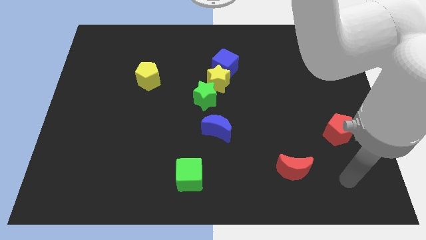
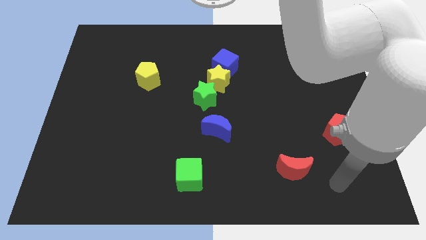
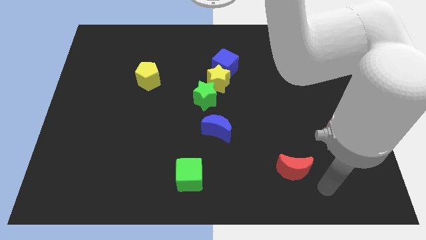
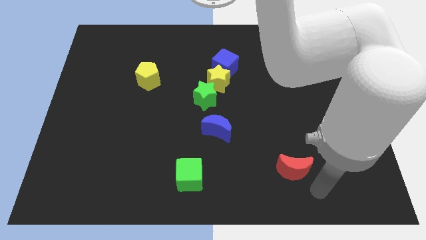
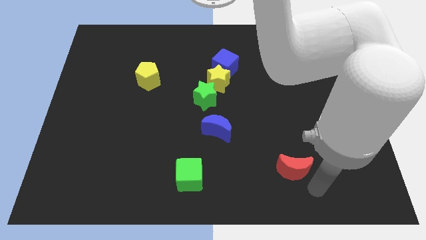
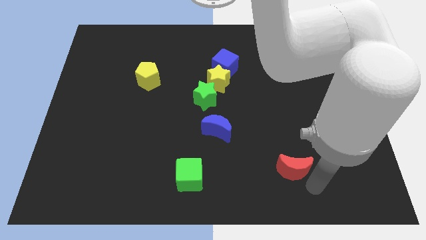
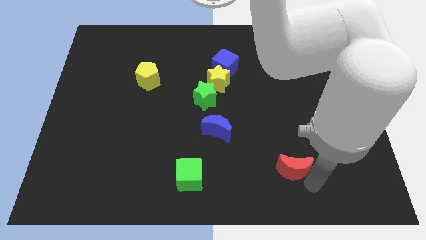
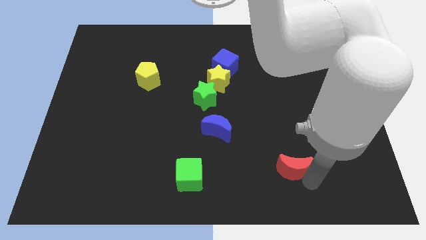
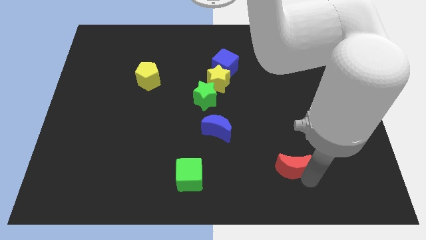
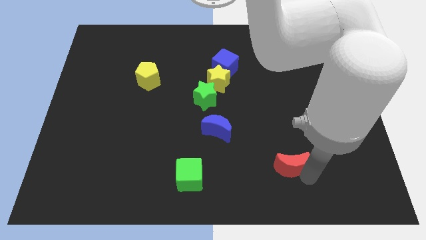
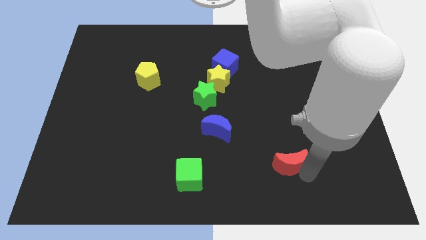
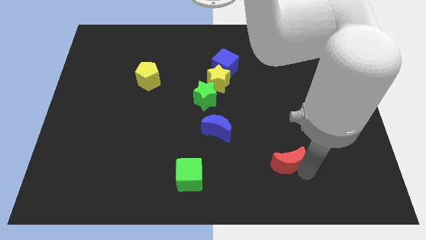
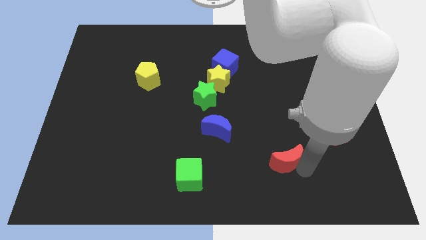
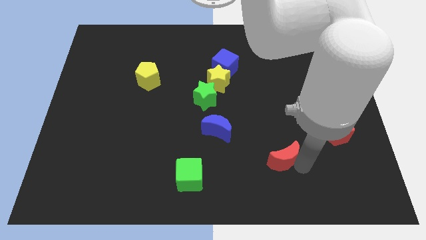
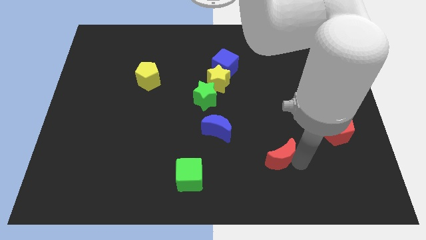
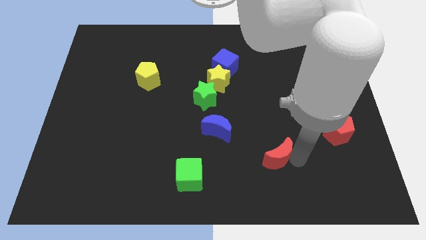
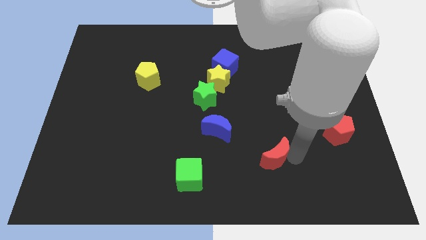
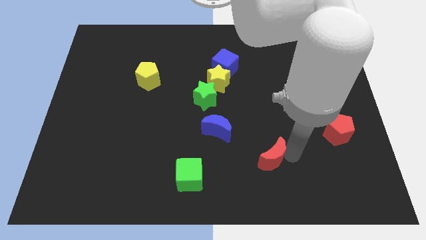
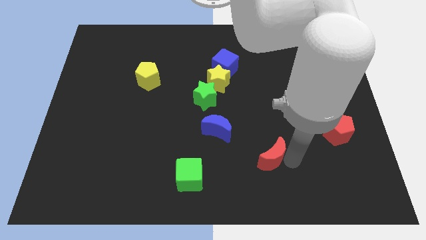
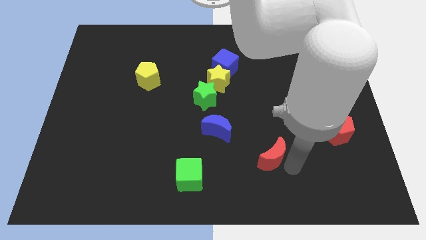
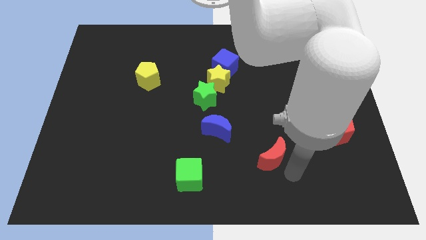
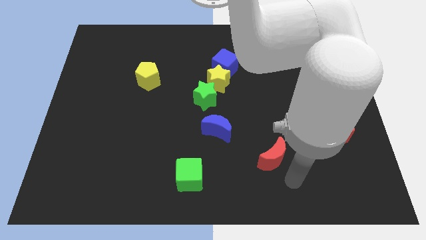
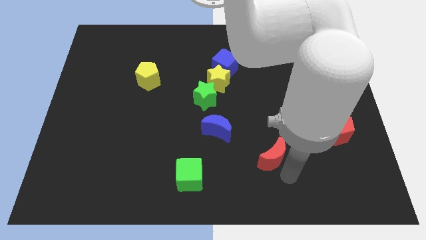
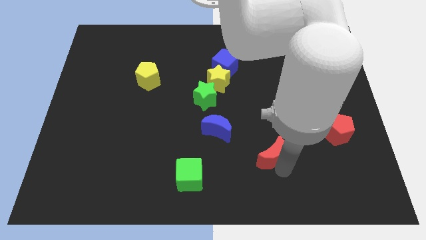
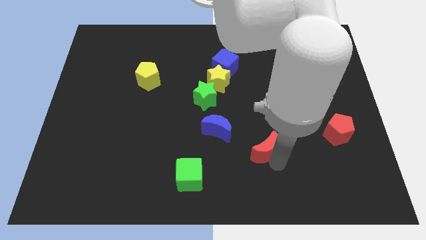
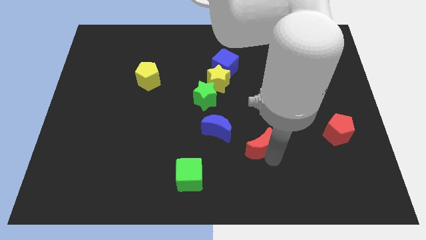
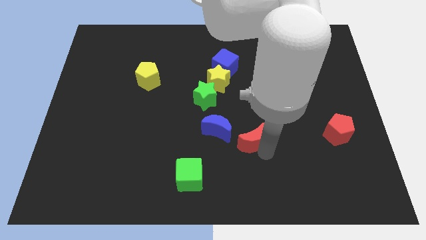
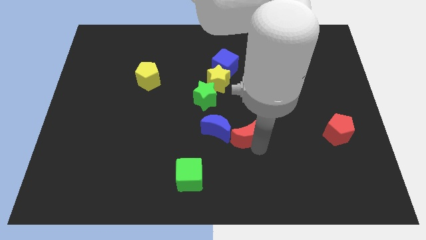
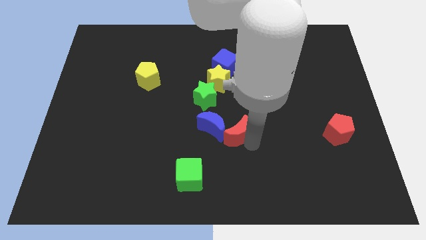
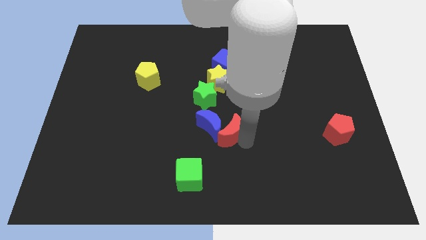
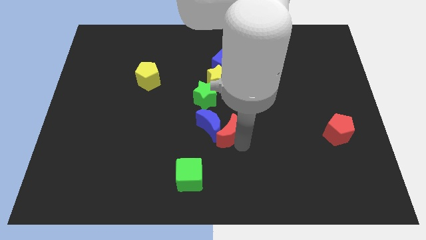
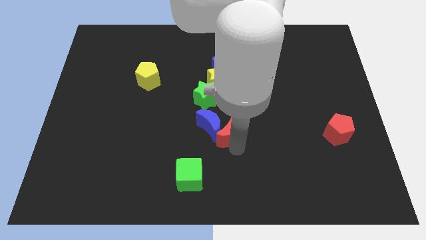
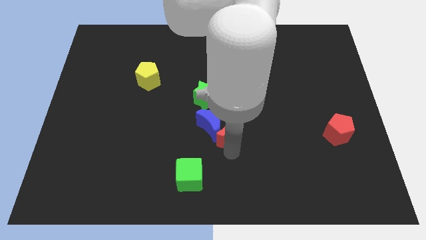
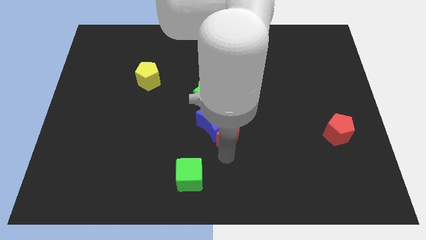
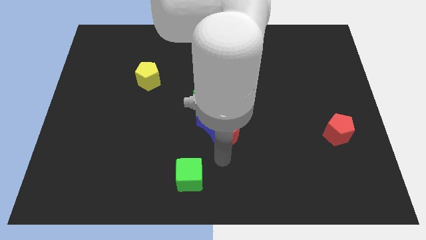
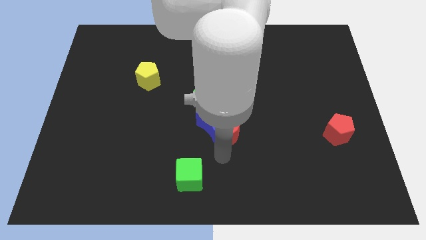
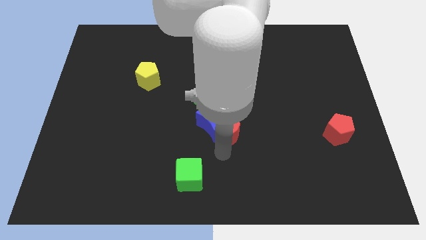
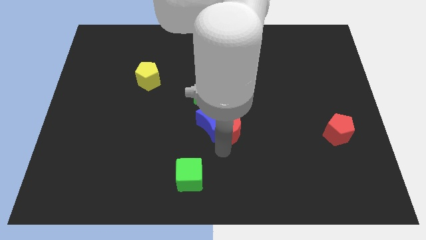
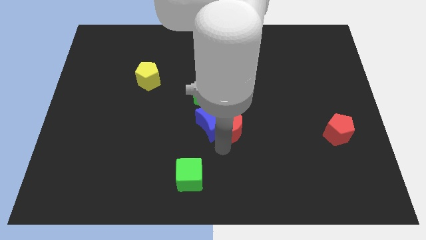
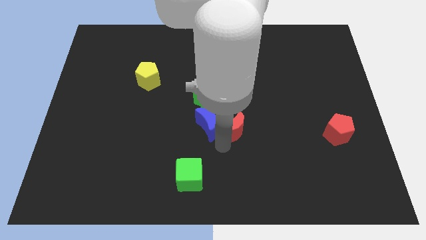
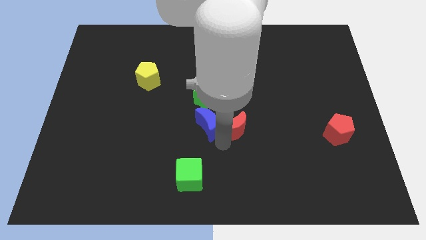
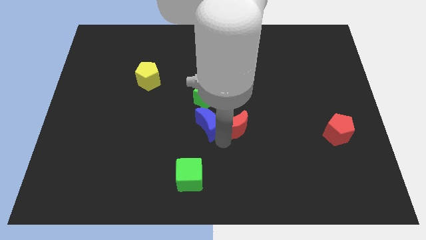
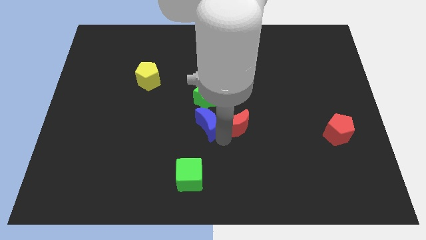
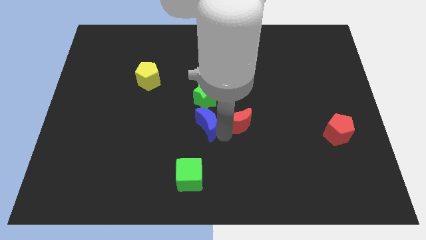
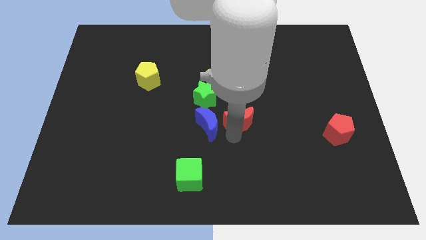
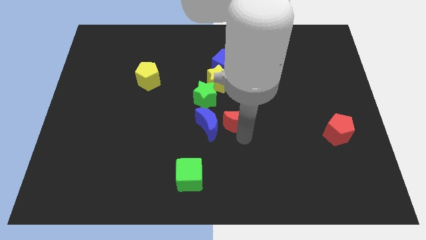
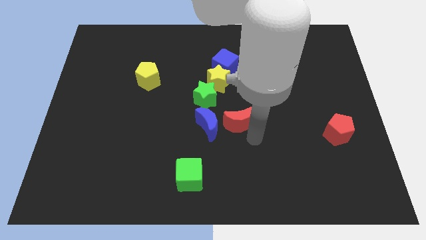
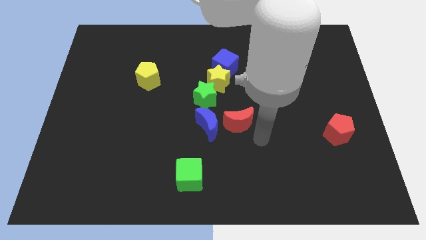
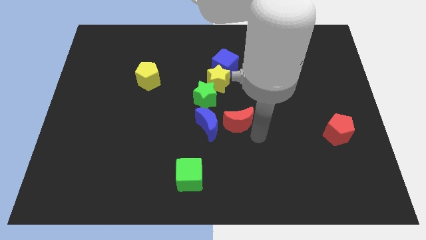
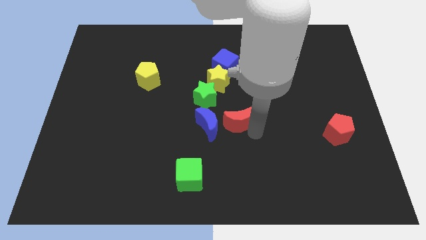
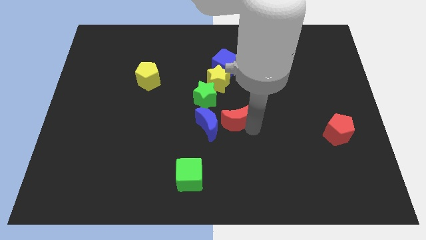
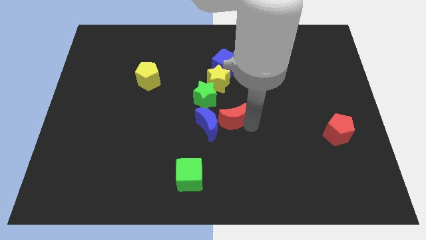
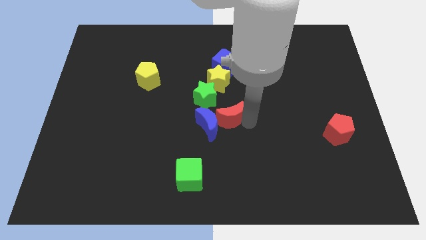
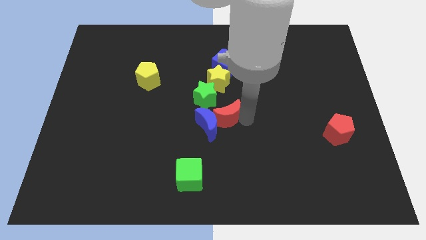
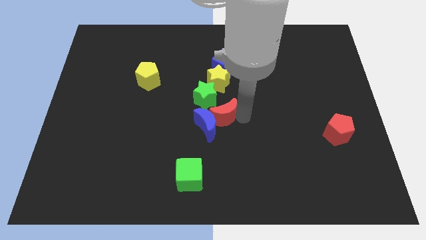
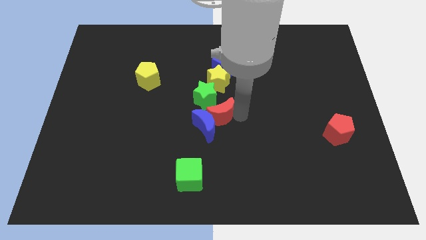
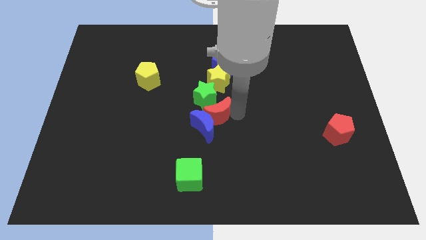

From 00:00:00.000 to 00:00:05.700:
push the red moon close to the green star

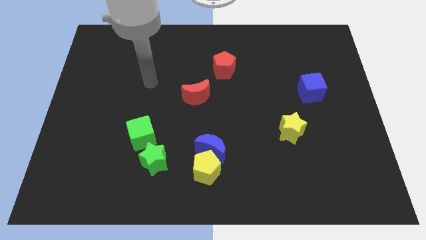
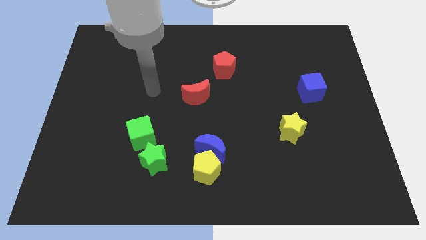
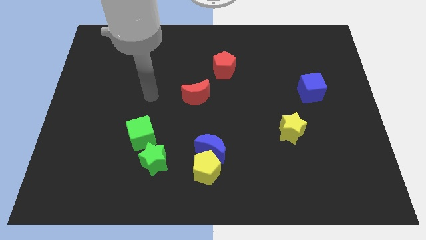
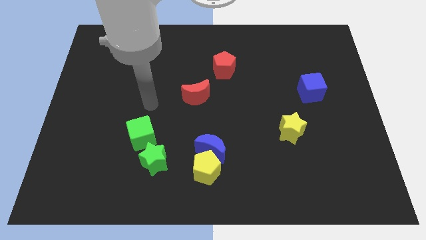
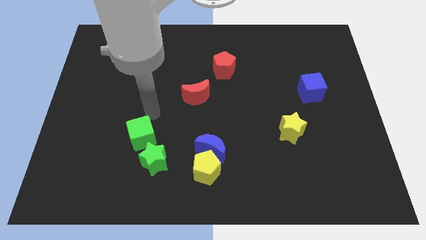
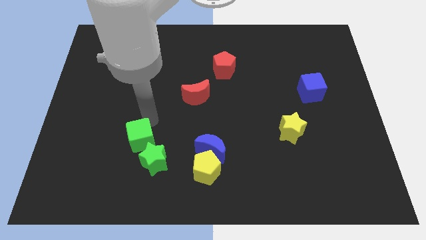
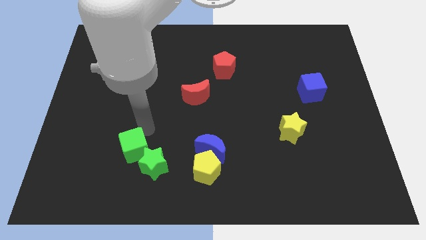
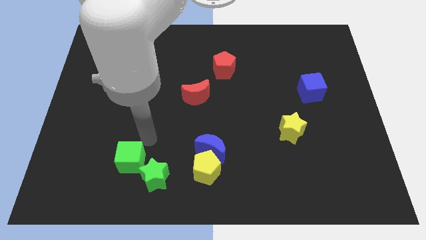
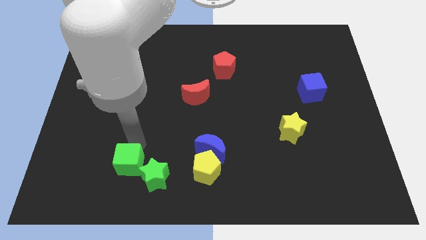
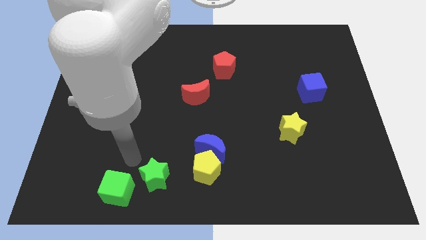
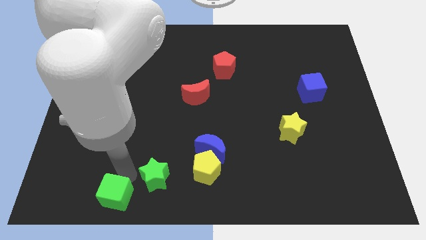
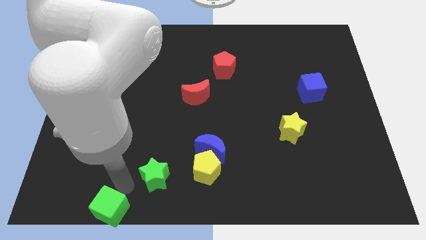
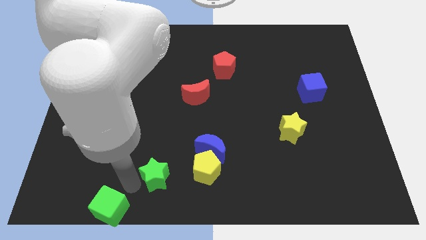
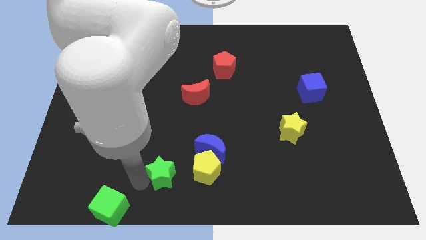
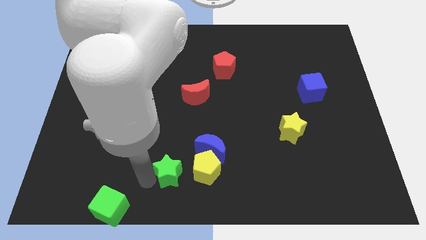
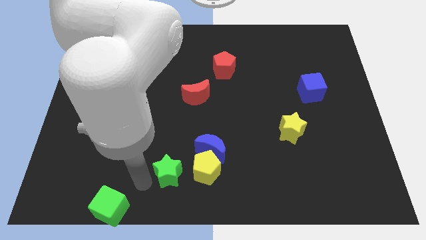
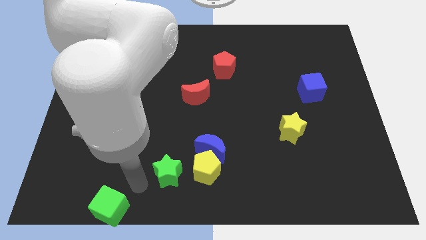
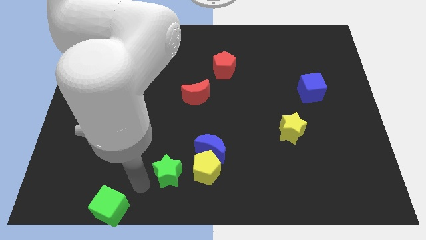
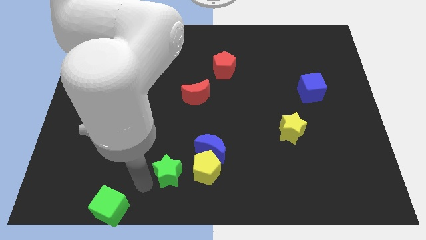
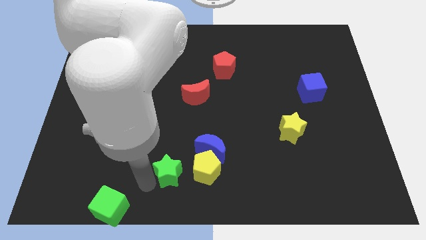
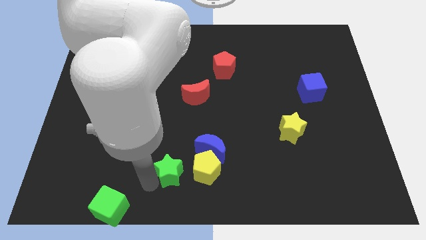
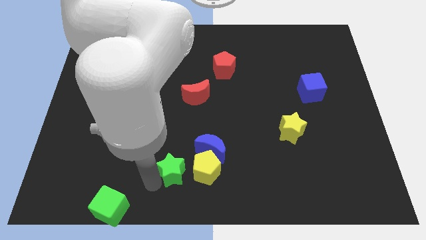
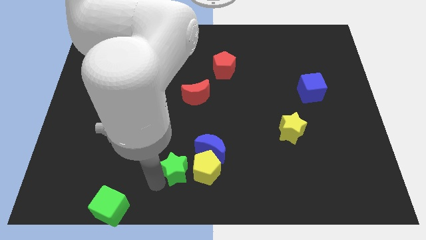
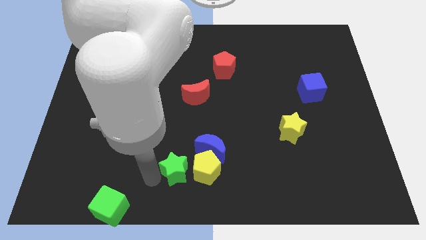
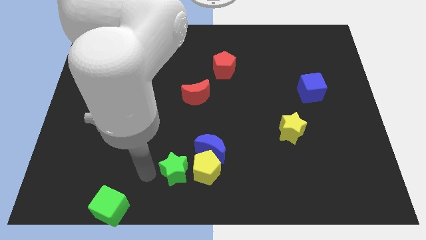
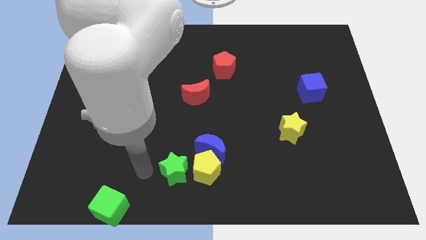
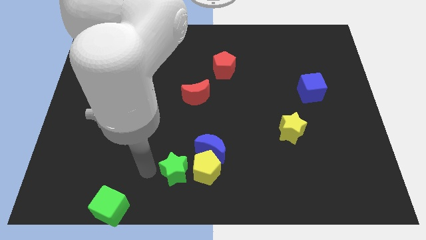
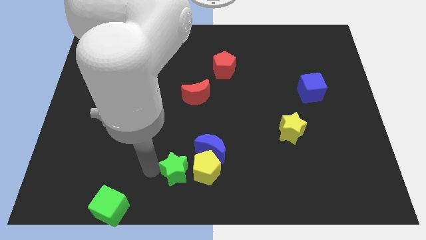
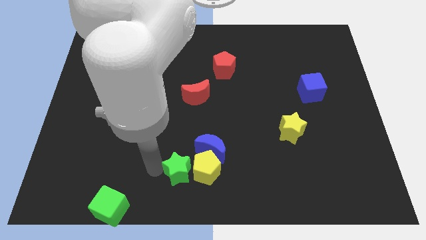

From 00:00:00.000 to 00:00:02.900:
move the green star towards the yellow pentagon
